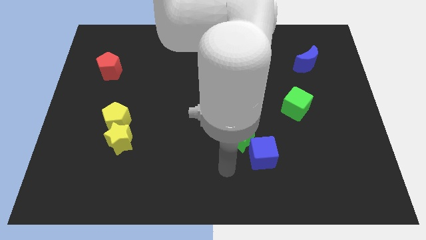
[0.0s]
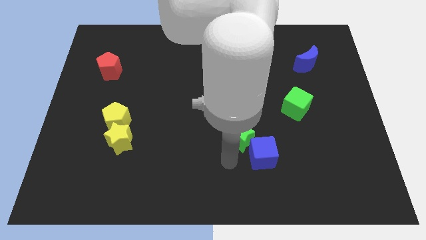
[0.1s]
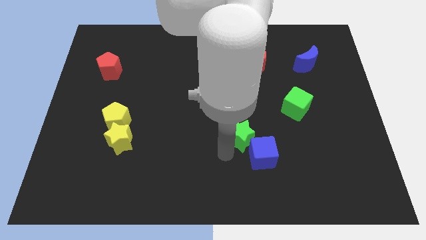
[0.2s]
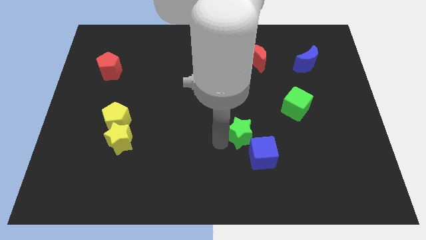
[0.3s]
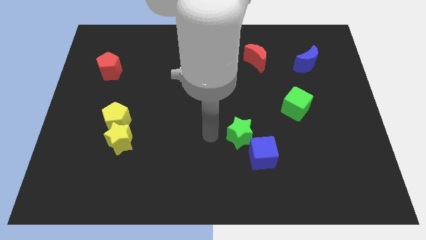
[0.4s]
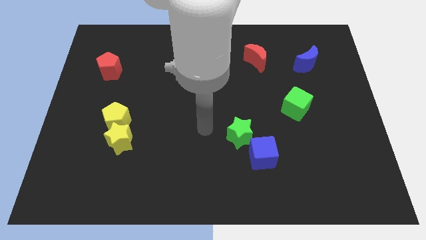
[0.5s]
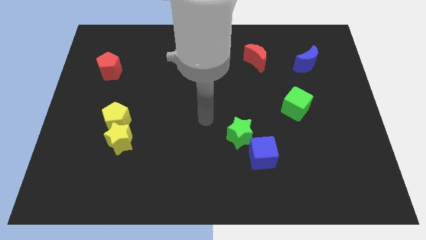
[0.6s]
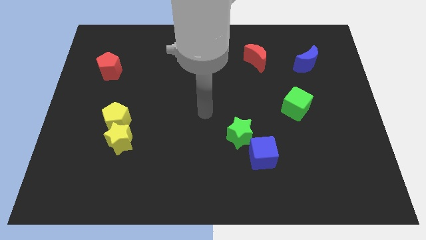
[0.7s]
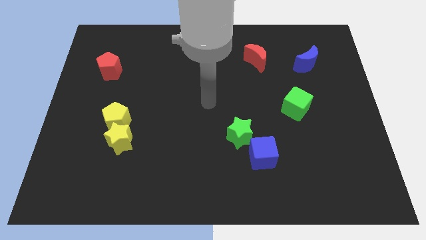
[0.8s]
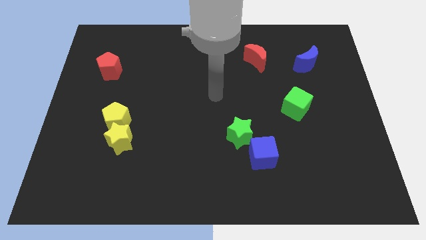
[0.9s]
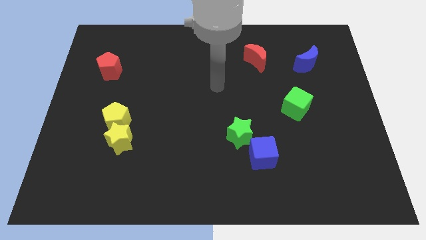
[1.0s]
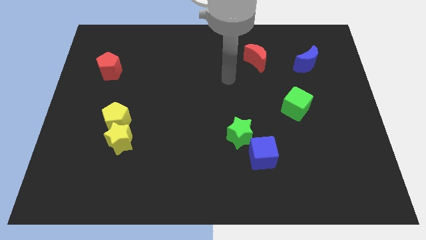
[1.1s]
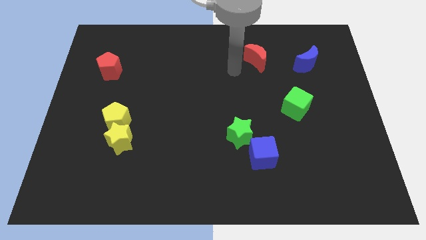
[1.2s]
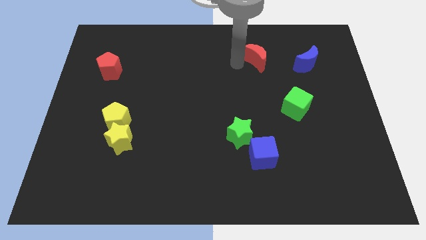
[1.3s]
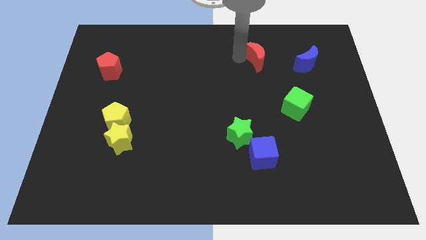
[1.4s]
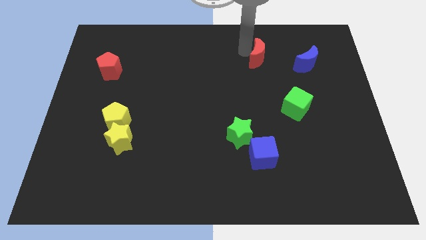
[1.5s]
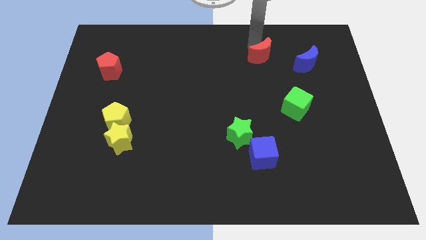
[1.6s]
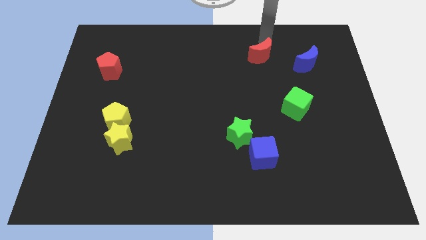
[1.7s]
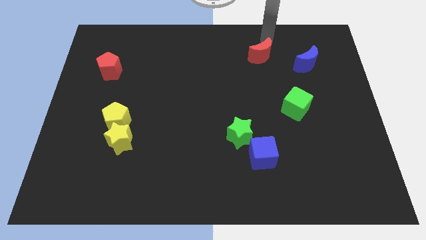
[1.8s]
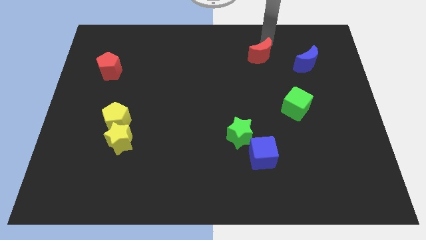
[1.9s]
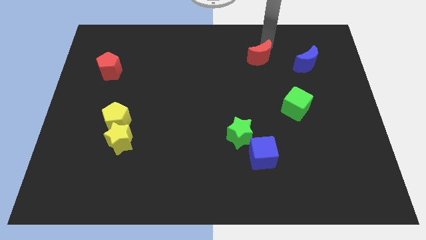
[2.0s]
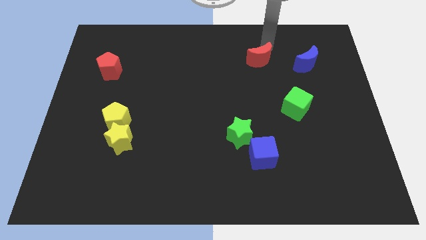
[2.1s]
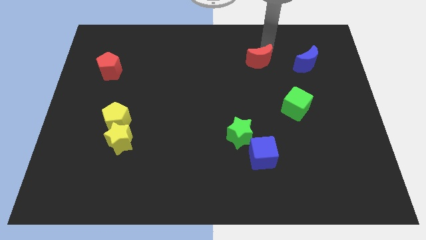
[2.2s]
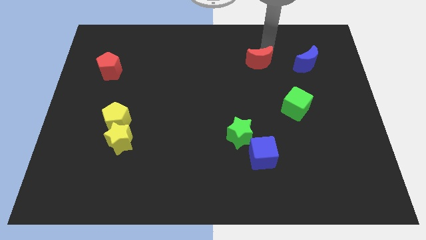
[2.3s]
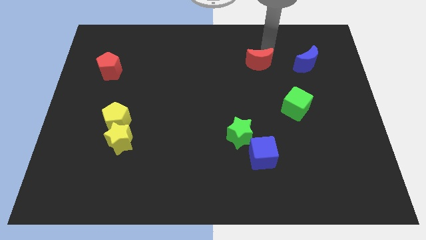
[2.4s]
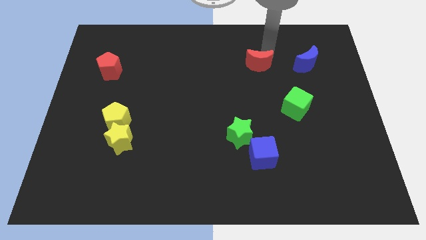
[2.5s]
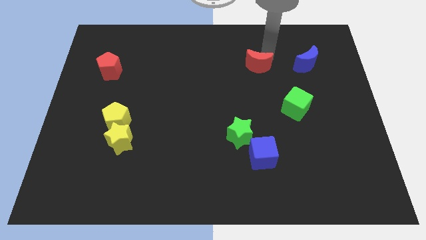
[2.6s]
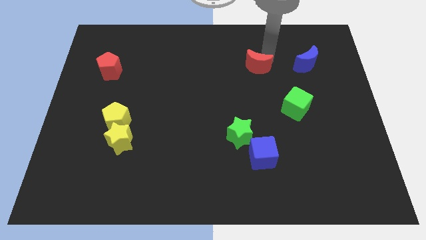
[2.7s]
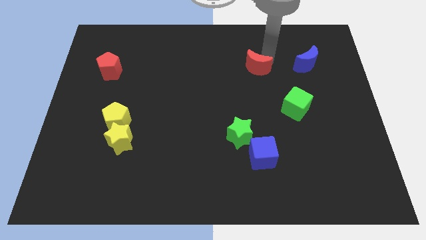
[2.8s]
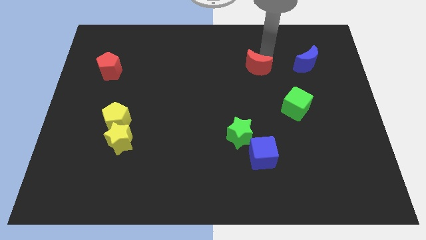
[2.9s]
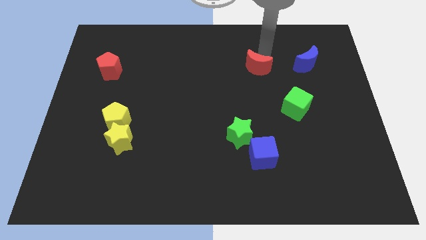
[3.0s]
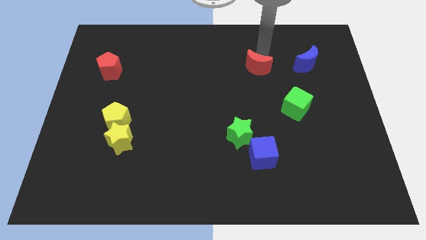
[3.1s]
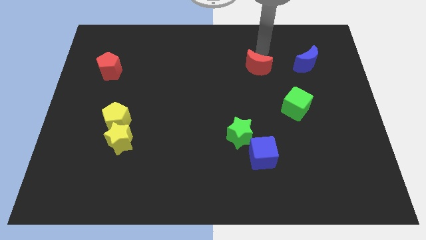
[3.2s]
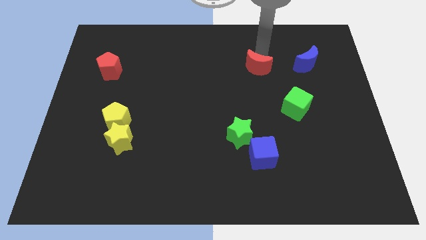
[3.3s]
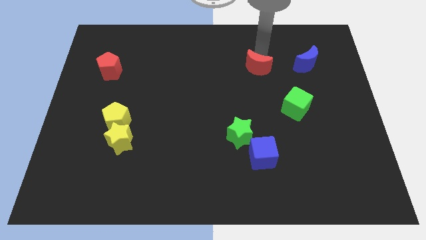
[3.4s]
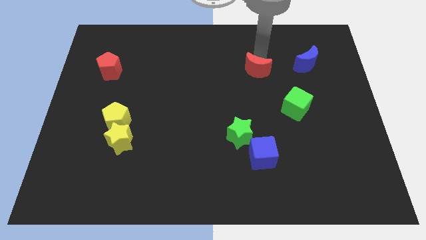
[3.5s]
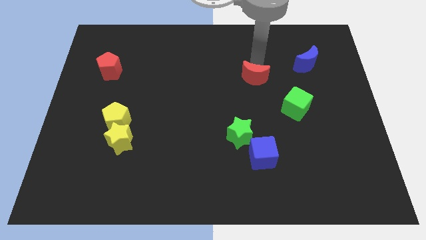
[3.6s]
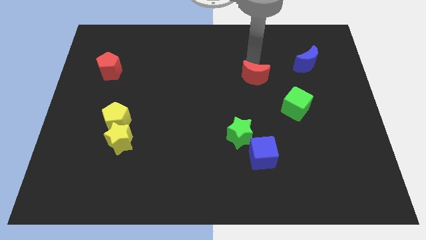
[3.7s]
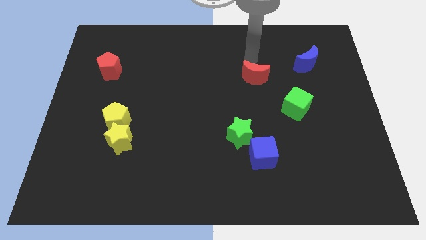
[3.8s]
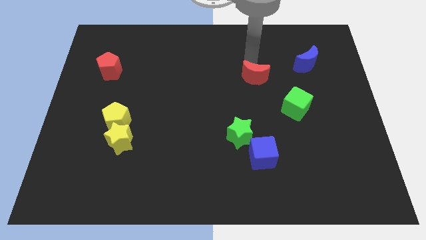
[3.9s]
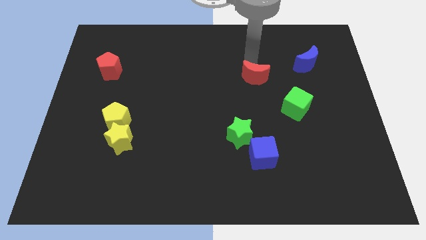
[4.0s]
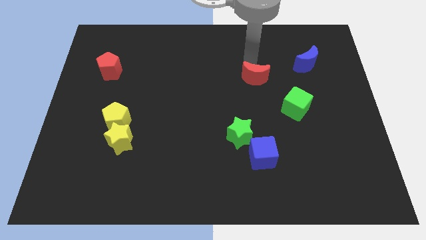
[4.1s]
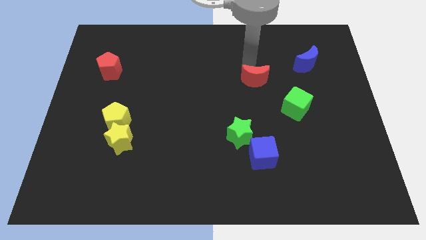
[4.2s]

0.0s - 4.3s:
slide the red moon downwards a little

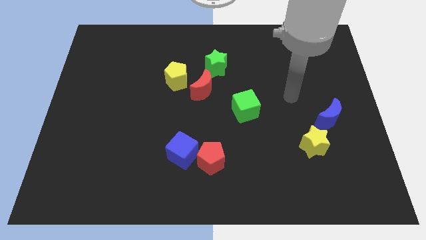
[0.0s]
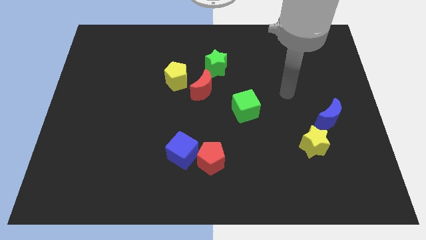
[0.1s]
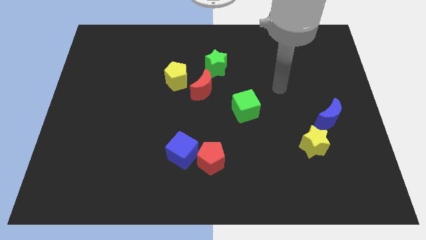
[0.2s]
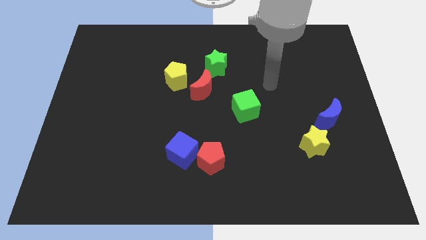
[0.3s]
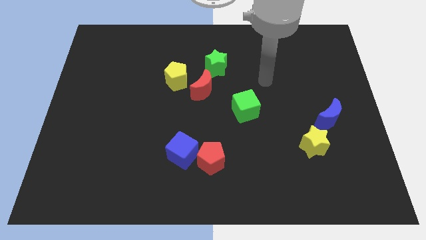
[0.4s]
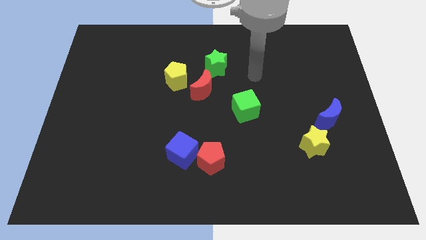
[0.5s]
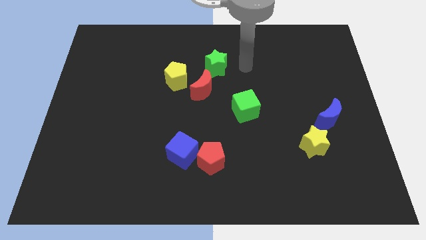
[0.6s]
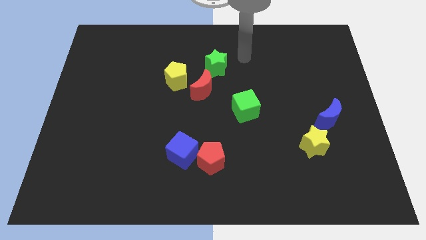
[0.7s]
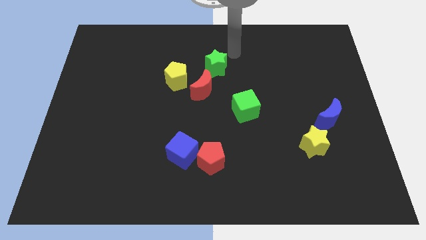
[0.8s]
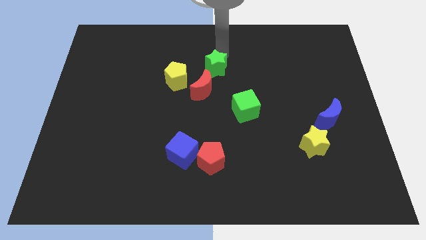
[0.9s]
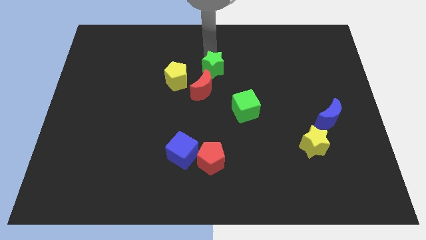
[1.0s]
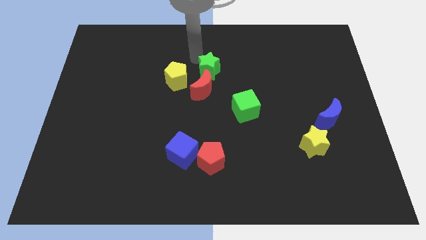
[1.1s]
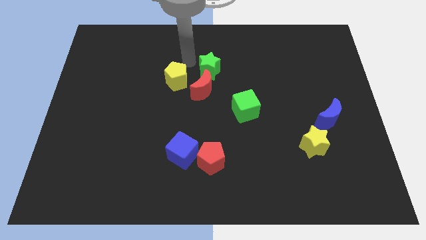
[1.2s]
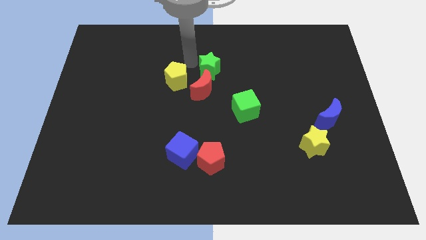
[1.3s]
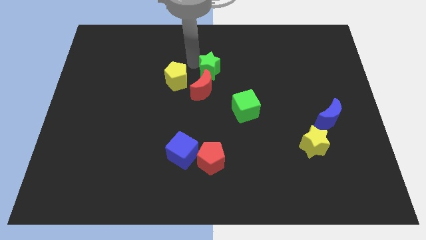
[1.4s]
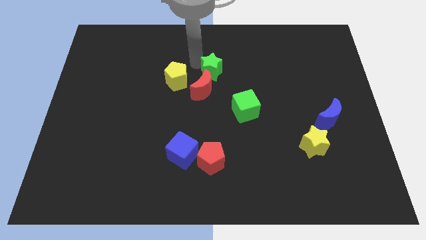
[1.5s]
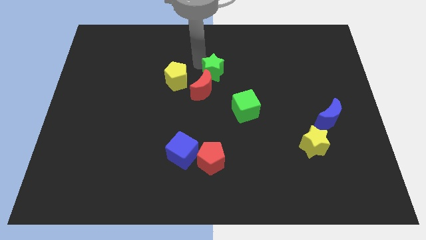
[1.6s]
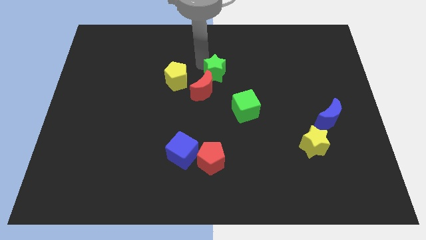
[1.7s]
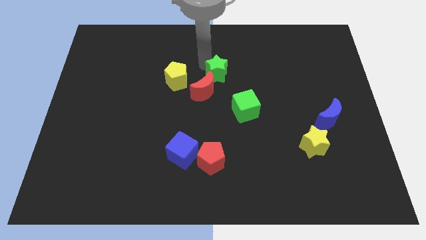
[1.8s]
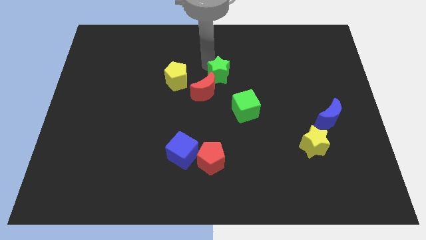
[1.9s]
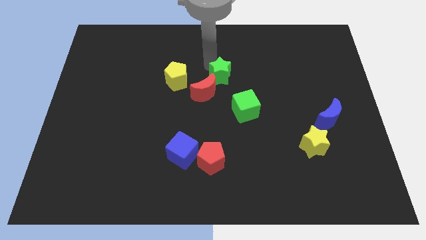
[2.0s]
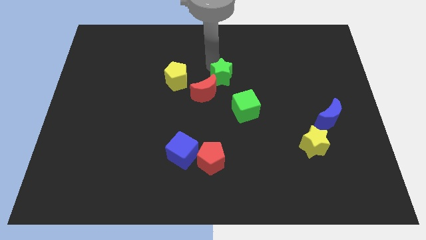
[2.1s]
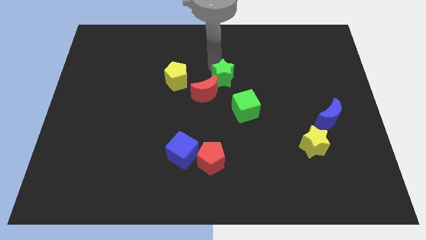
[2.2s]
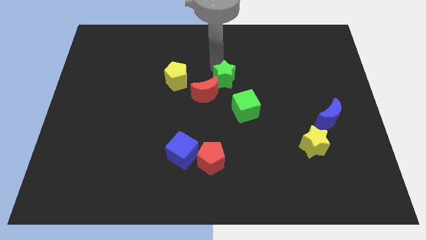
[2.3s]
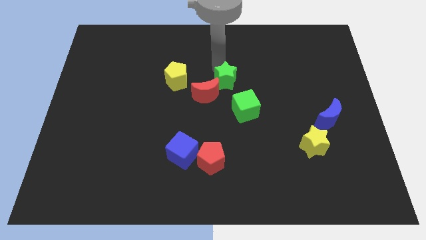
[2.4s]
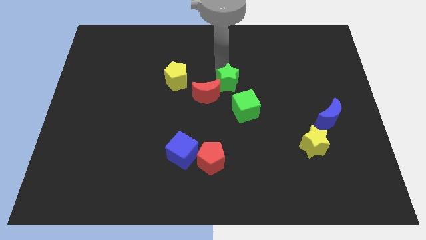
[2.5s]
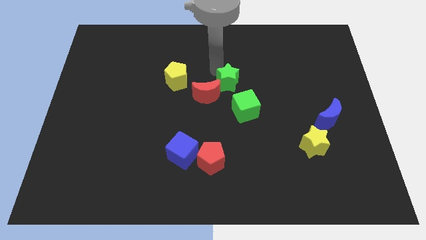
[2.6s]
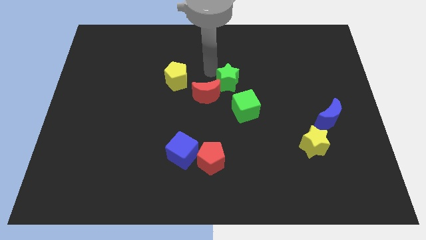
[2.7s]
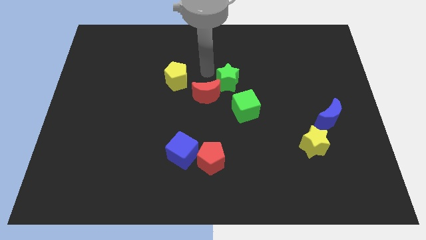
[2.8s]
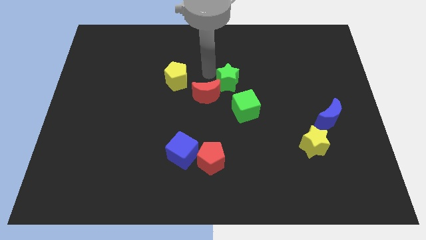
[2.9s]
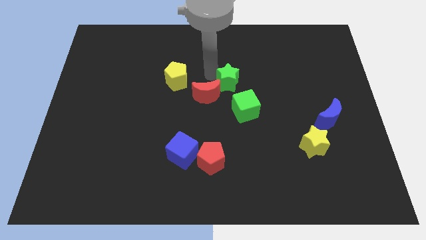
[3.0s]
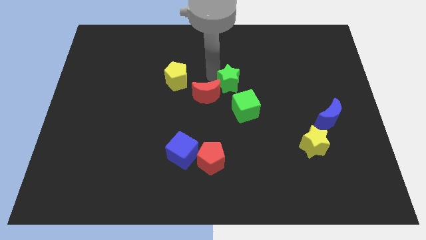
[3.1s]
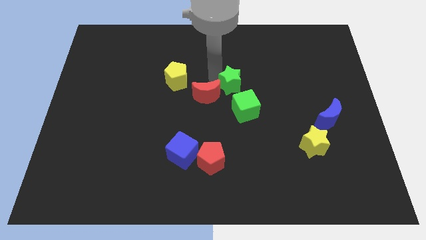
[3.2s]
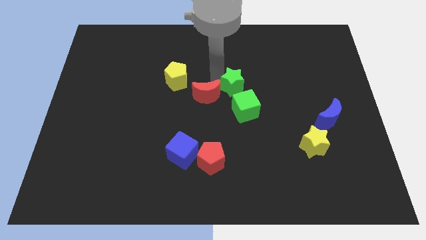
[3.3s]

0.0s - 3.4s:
slightly slide the green star downwards and to the right diagonally

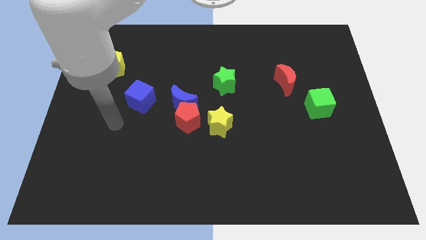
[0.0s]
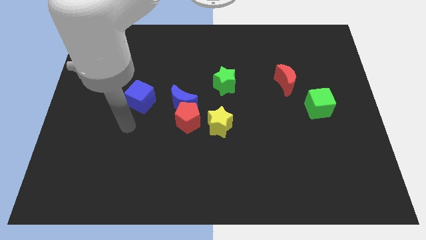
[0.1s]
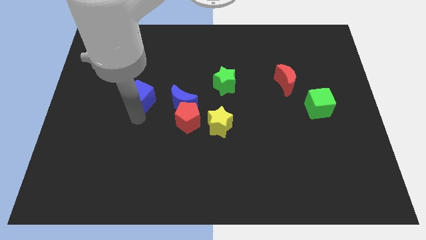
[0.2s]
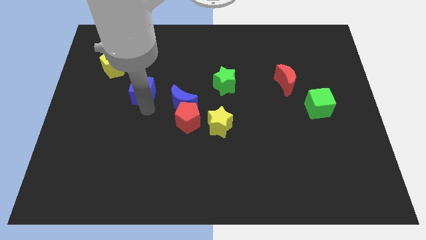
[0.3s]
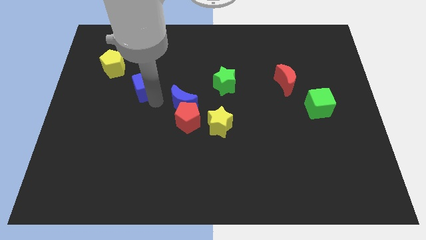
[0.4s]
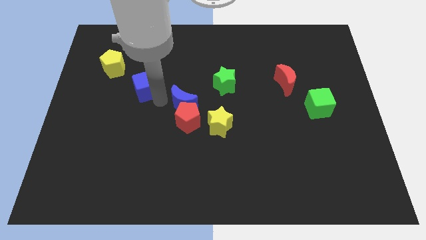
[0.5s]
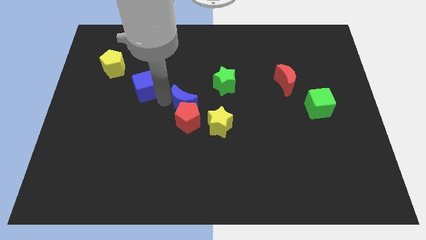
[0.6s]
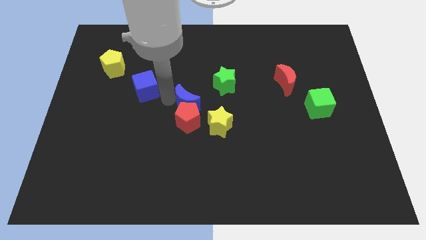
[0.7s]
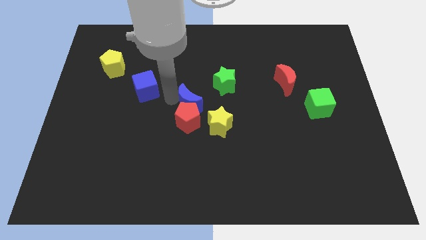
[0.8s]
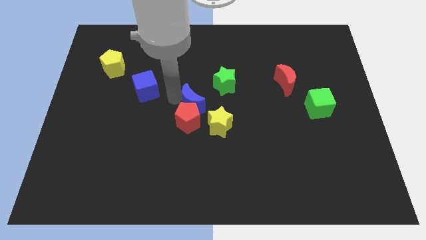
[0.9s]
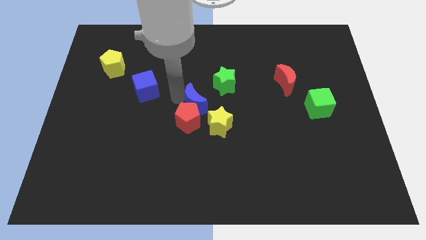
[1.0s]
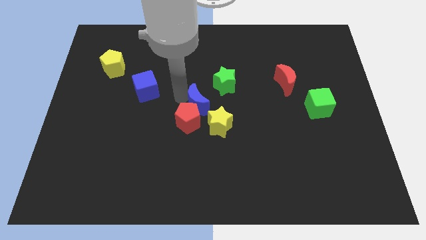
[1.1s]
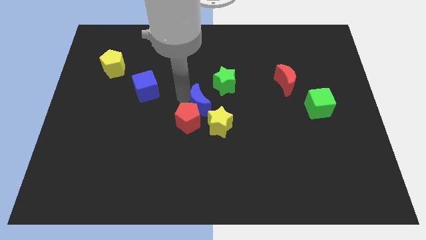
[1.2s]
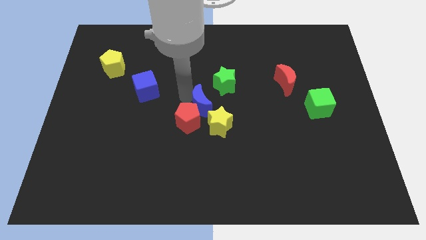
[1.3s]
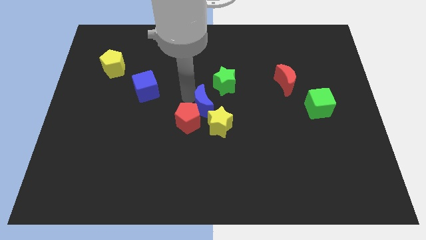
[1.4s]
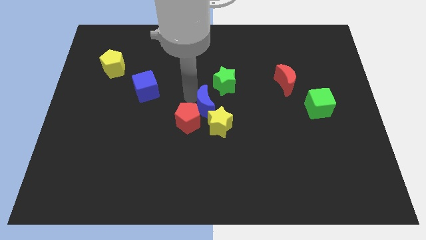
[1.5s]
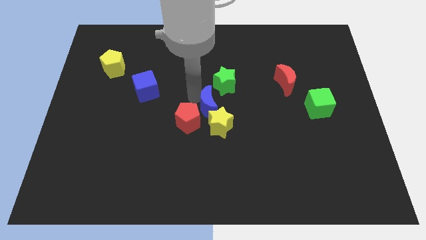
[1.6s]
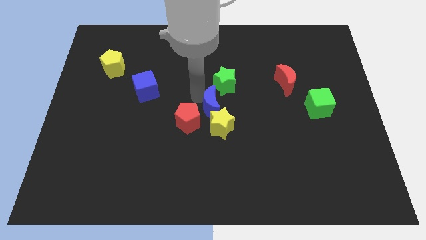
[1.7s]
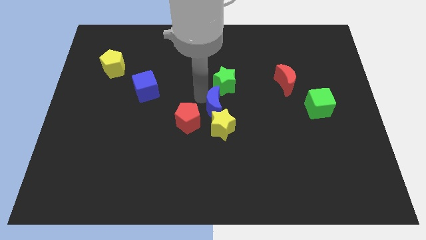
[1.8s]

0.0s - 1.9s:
push the blue moon to the right somewhat
